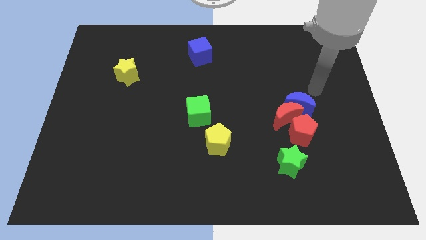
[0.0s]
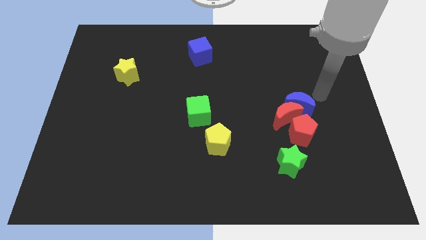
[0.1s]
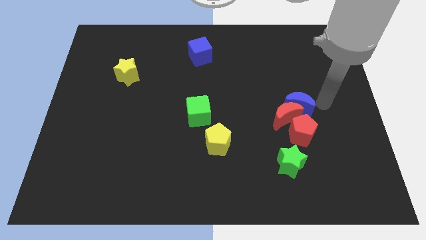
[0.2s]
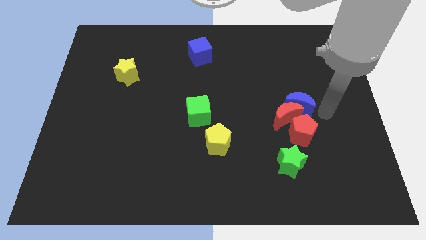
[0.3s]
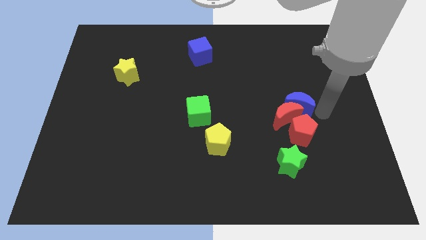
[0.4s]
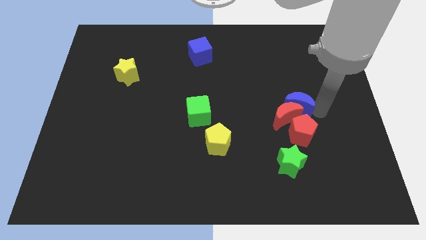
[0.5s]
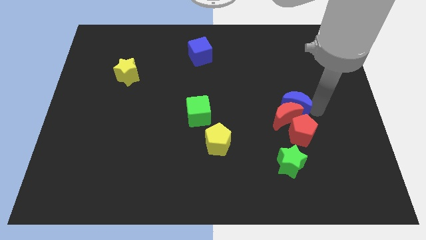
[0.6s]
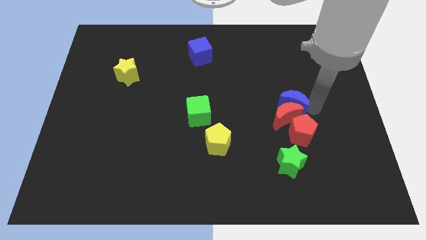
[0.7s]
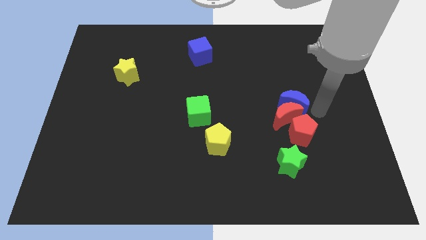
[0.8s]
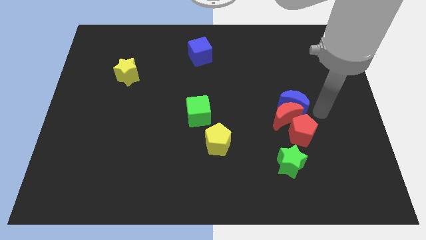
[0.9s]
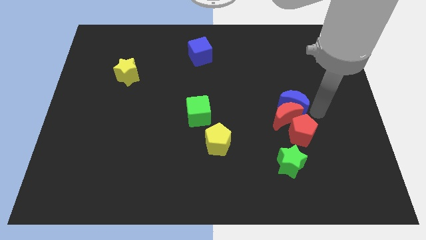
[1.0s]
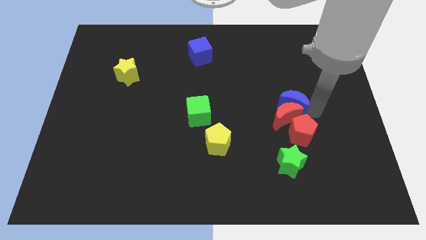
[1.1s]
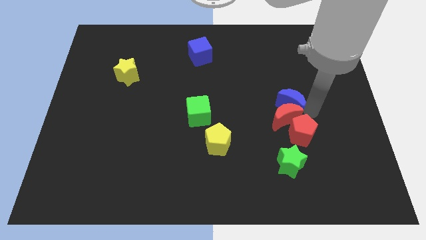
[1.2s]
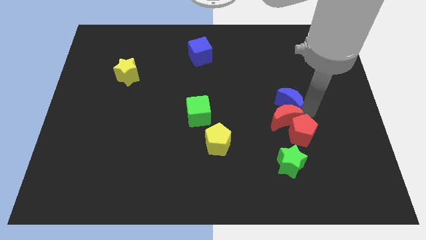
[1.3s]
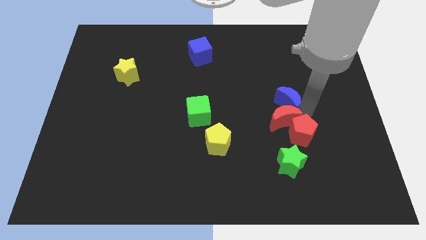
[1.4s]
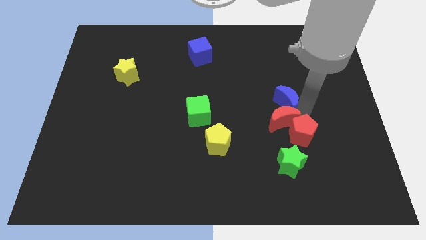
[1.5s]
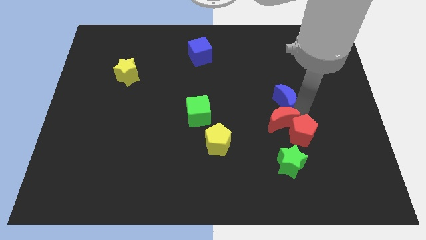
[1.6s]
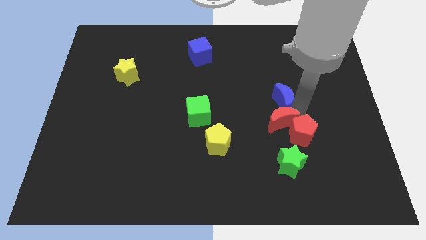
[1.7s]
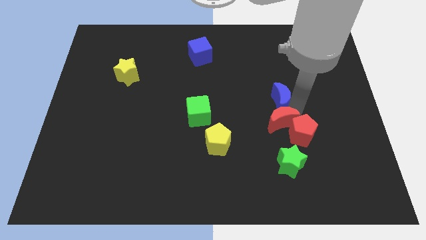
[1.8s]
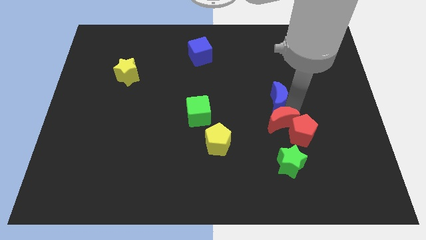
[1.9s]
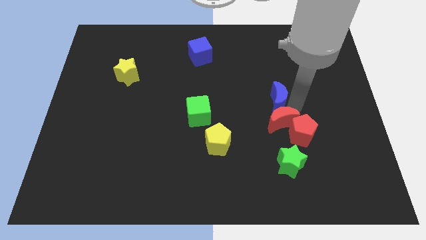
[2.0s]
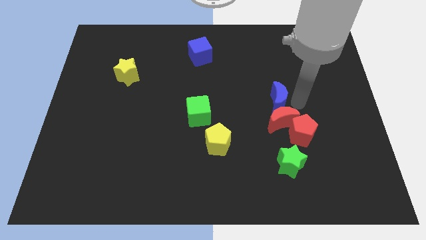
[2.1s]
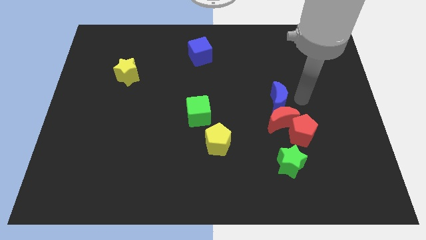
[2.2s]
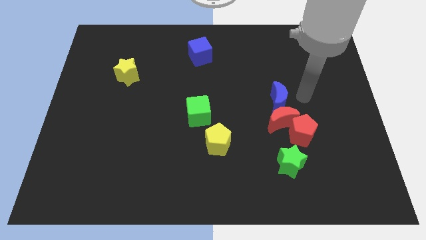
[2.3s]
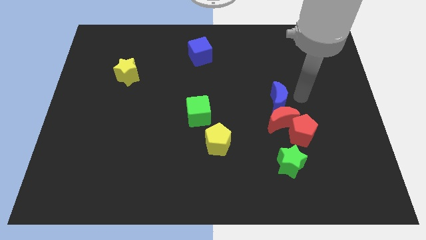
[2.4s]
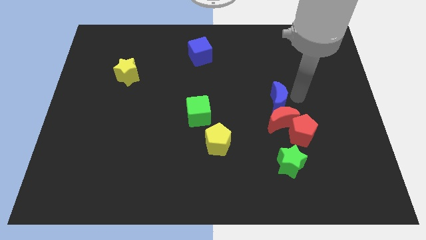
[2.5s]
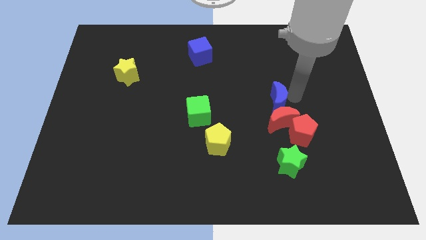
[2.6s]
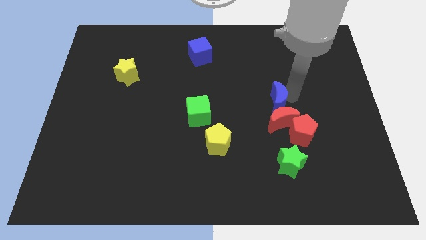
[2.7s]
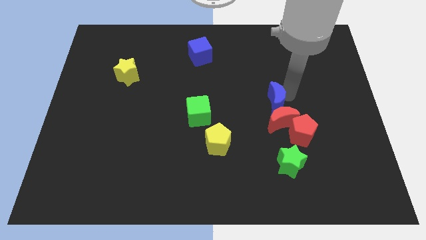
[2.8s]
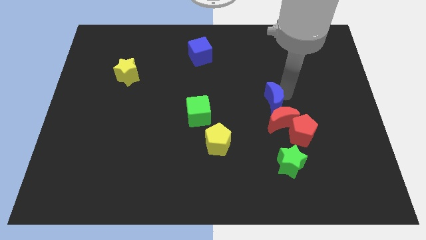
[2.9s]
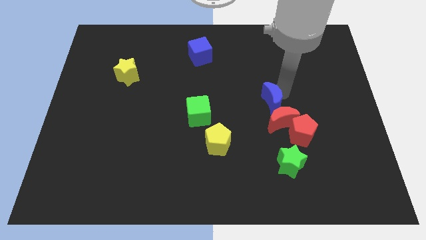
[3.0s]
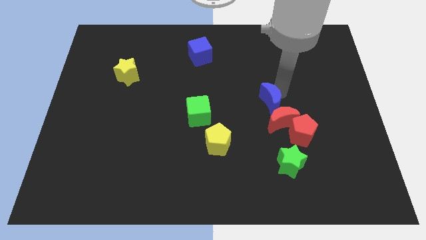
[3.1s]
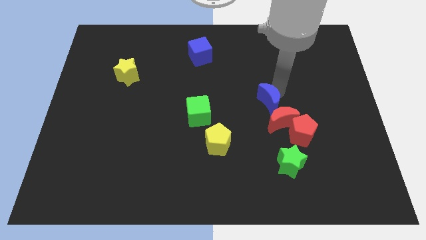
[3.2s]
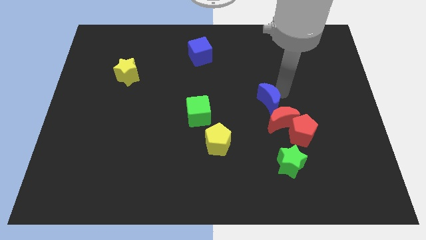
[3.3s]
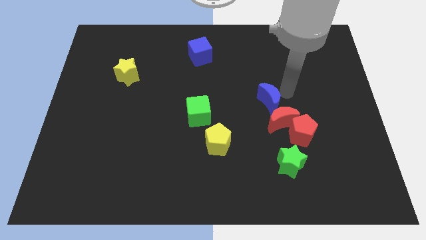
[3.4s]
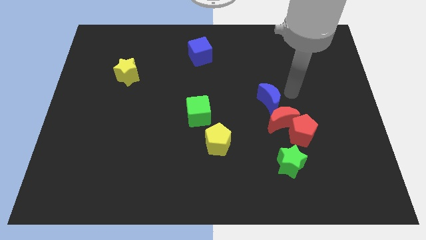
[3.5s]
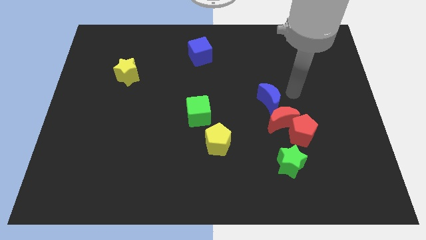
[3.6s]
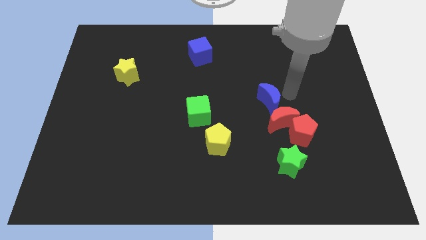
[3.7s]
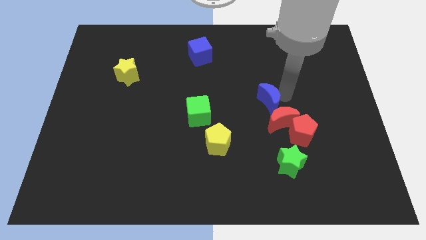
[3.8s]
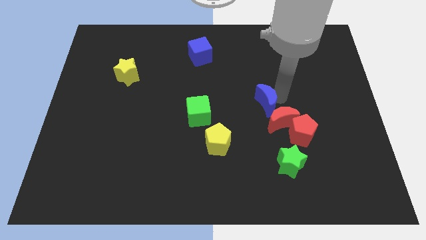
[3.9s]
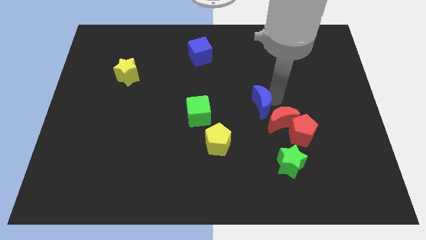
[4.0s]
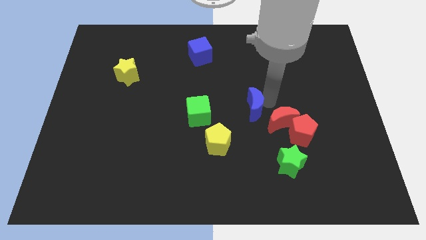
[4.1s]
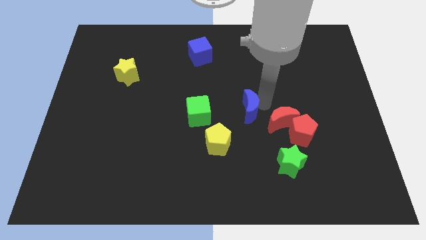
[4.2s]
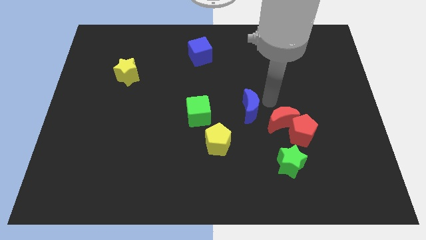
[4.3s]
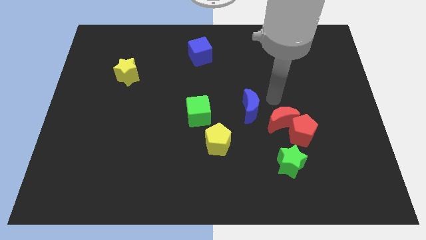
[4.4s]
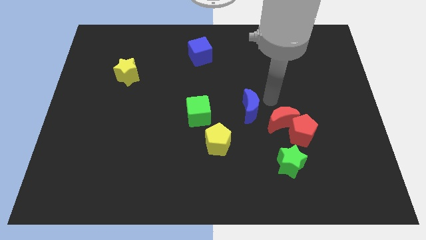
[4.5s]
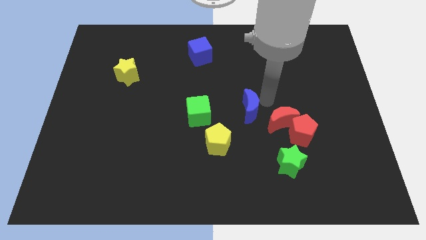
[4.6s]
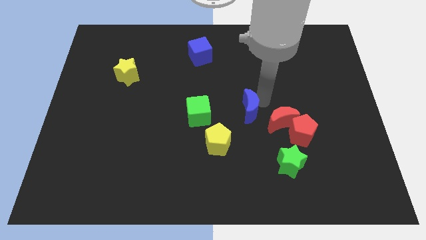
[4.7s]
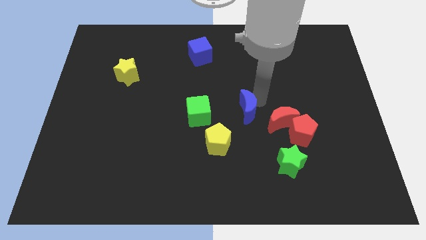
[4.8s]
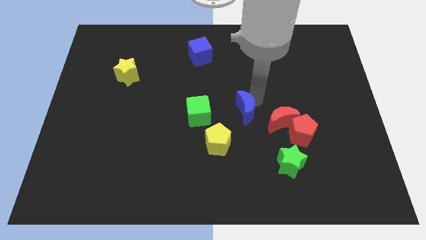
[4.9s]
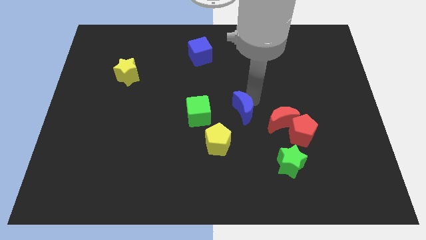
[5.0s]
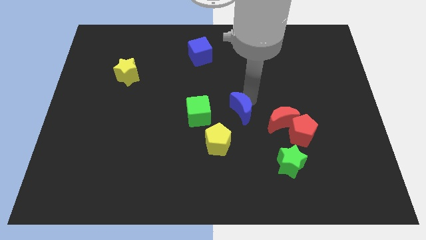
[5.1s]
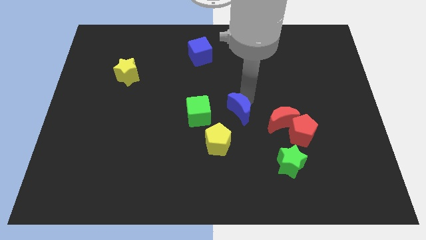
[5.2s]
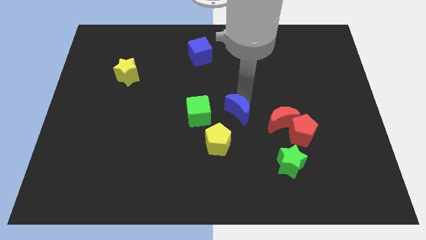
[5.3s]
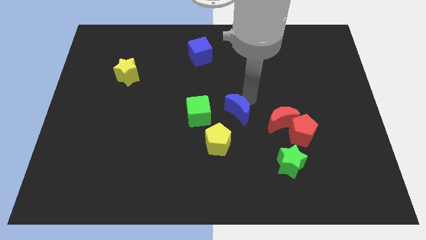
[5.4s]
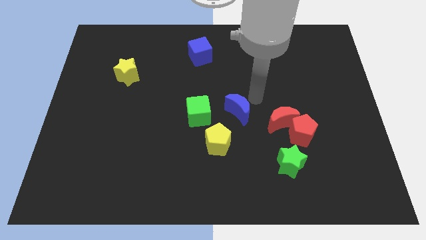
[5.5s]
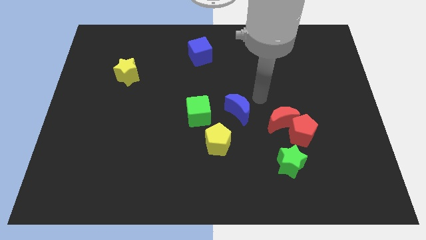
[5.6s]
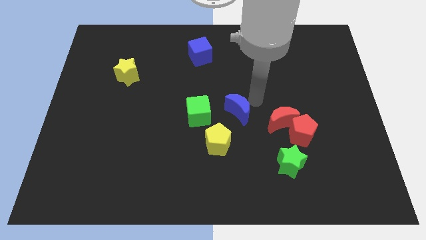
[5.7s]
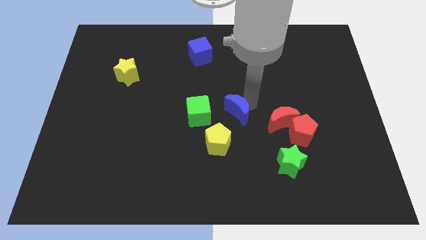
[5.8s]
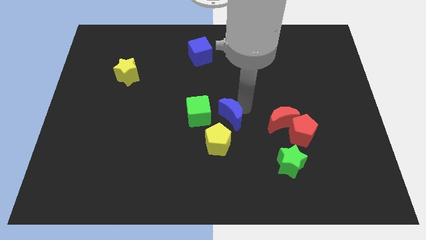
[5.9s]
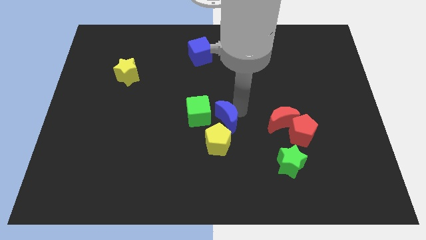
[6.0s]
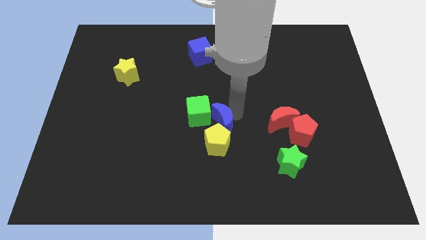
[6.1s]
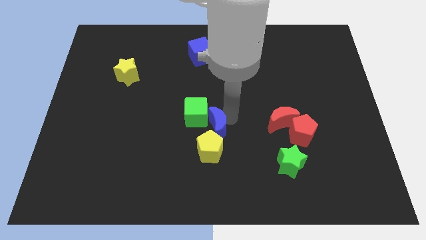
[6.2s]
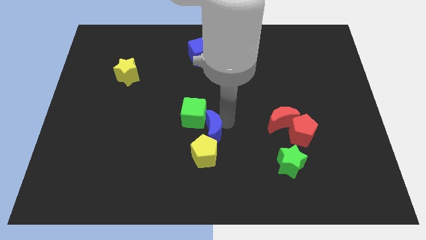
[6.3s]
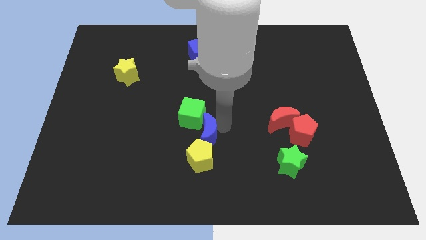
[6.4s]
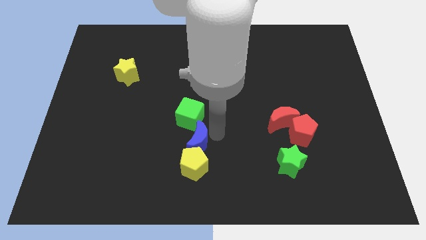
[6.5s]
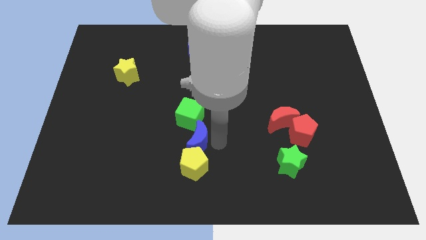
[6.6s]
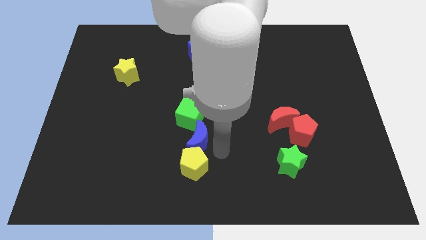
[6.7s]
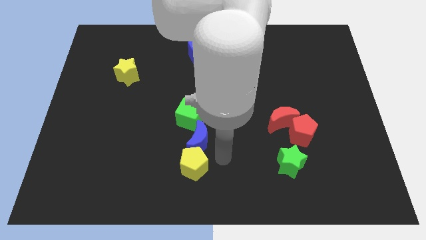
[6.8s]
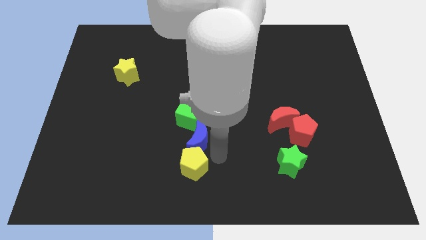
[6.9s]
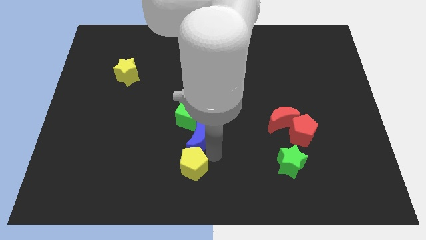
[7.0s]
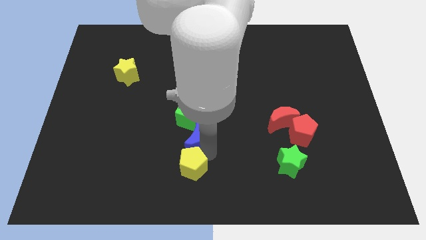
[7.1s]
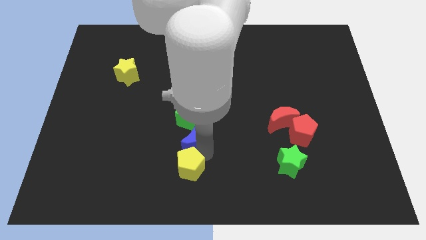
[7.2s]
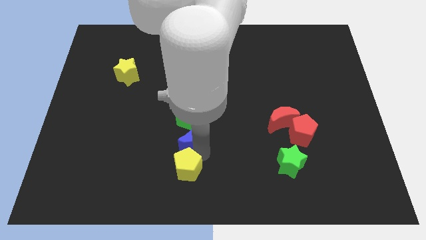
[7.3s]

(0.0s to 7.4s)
slide the blue moon to the left
